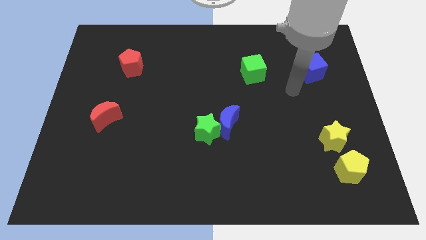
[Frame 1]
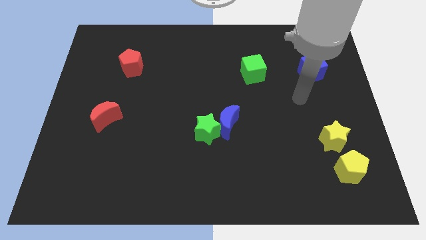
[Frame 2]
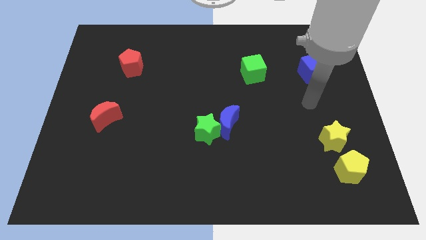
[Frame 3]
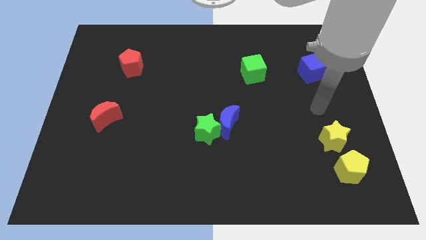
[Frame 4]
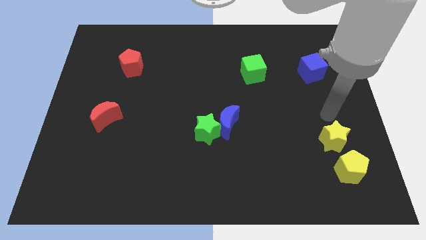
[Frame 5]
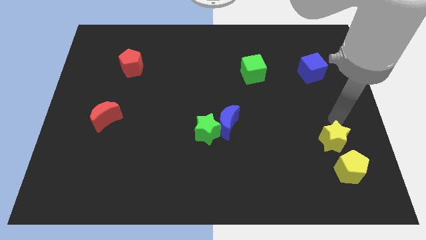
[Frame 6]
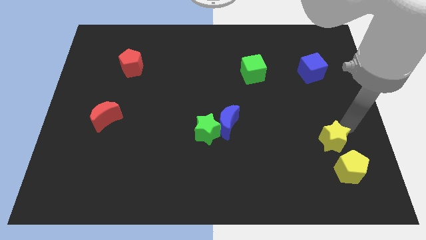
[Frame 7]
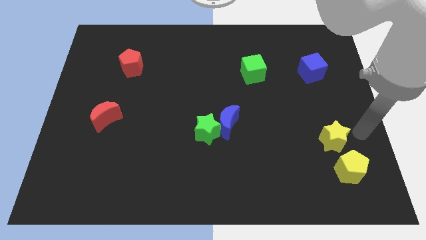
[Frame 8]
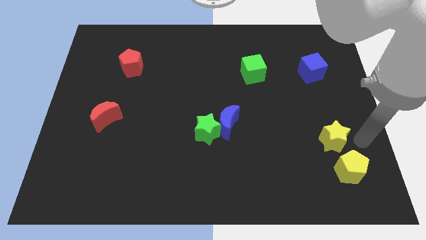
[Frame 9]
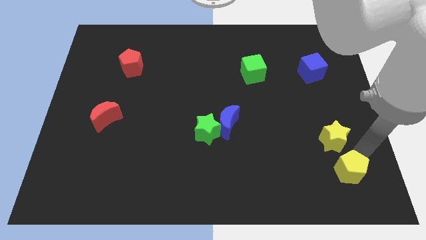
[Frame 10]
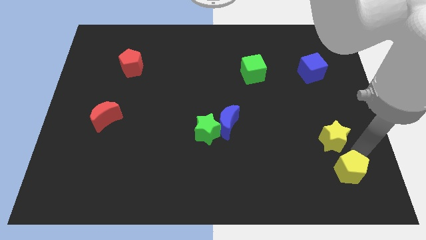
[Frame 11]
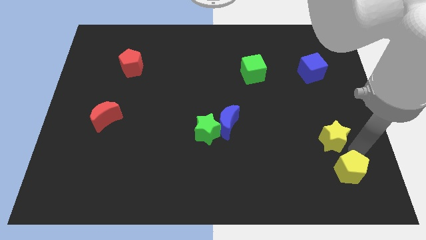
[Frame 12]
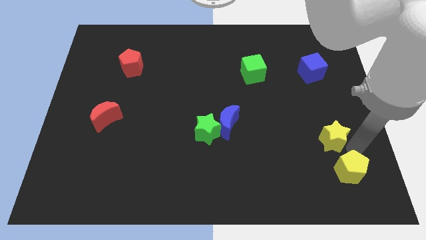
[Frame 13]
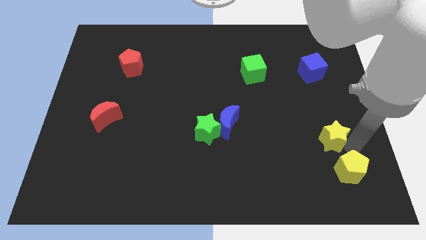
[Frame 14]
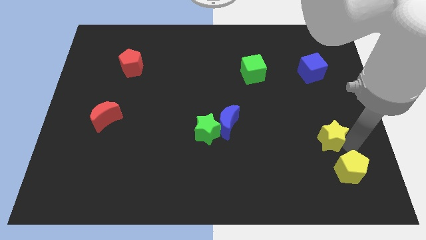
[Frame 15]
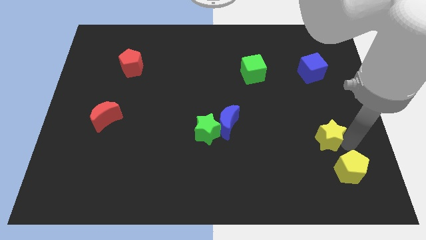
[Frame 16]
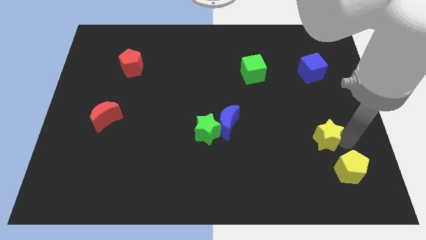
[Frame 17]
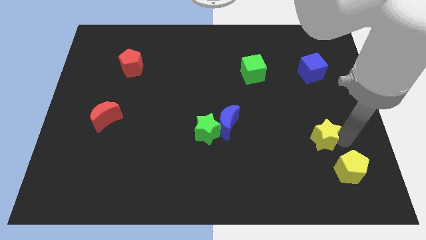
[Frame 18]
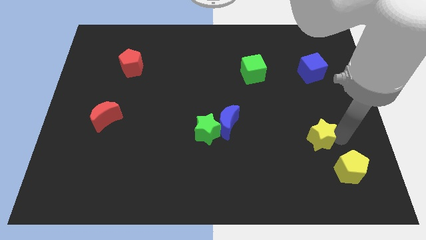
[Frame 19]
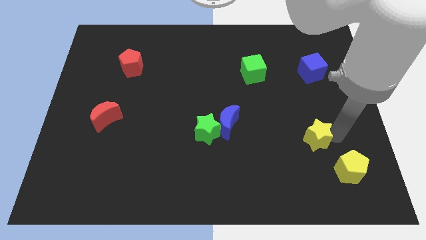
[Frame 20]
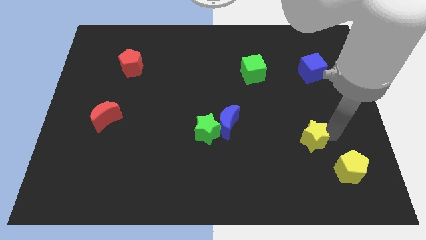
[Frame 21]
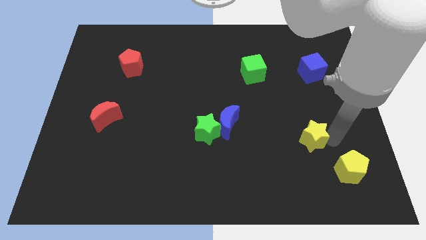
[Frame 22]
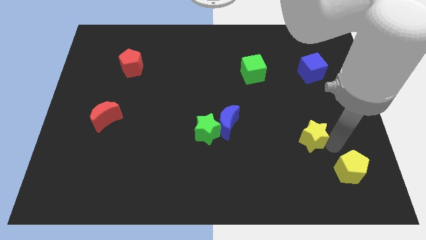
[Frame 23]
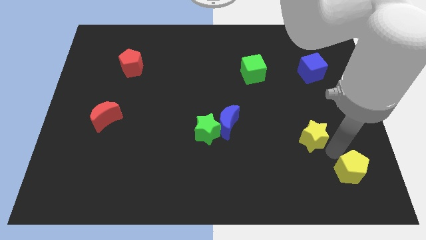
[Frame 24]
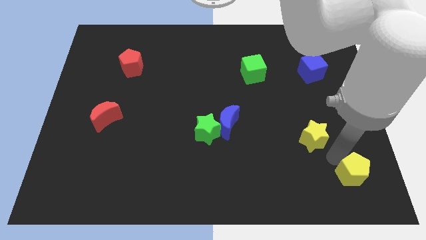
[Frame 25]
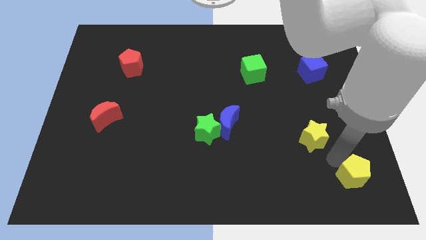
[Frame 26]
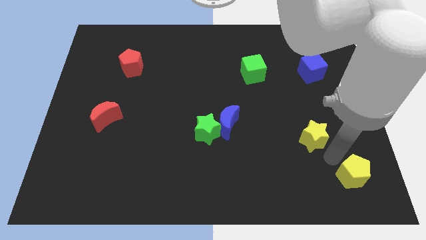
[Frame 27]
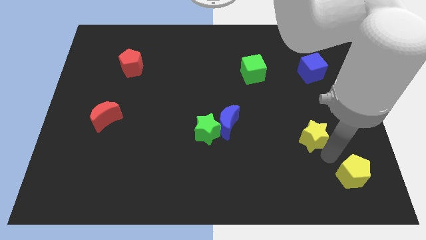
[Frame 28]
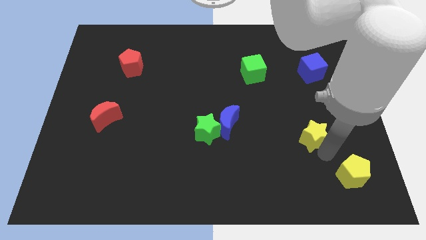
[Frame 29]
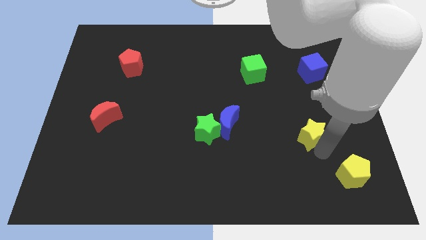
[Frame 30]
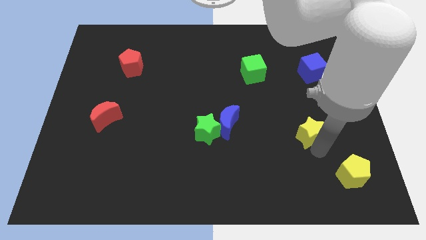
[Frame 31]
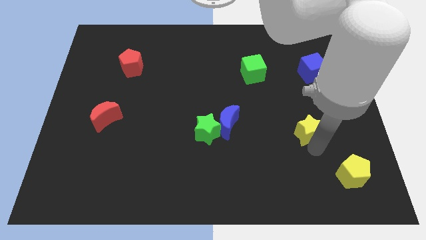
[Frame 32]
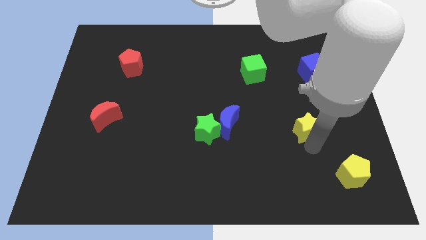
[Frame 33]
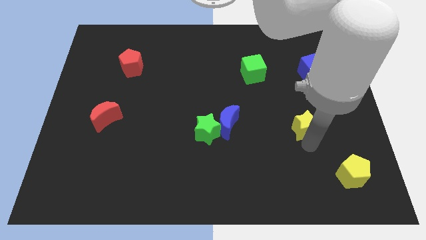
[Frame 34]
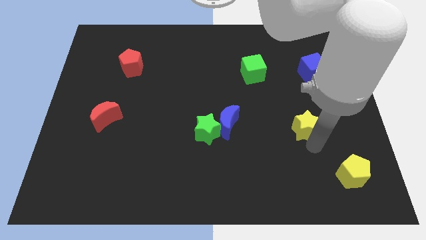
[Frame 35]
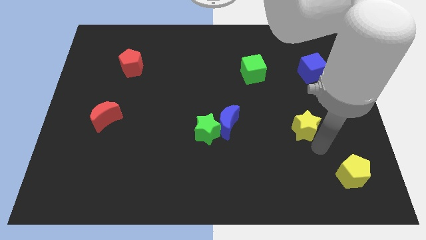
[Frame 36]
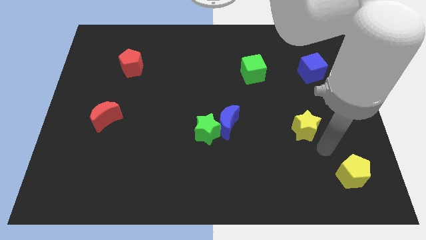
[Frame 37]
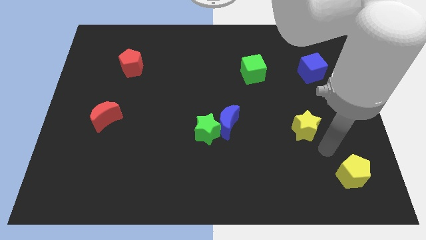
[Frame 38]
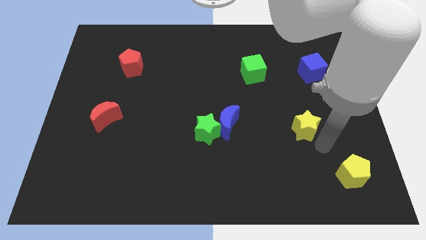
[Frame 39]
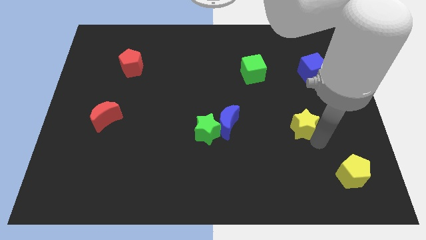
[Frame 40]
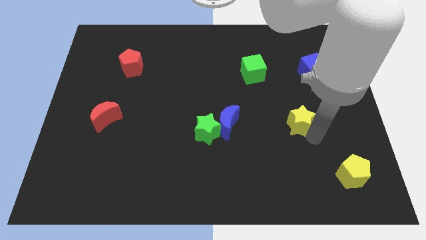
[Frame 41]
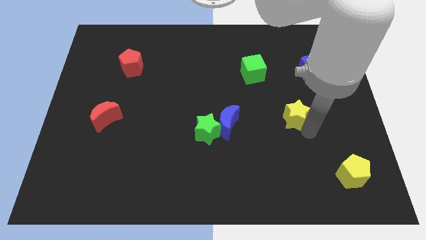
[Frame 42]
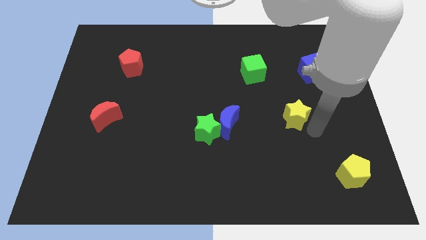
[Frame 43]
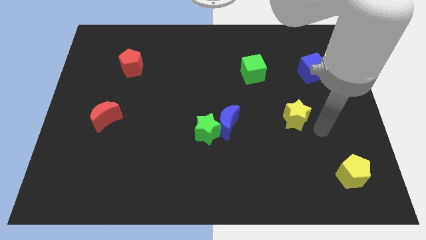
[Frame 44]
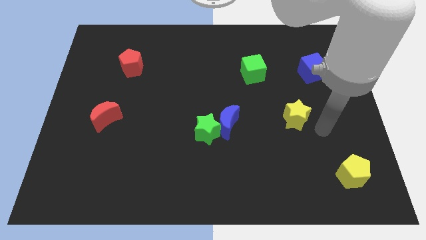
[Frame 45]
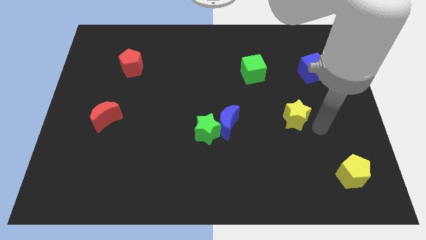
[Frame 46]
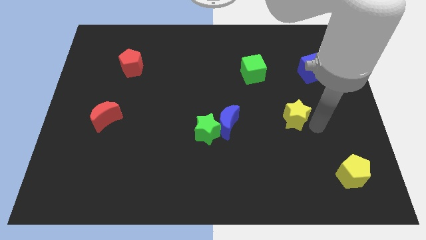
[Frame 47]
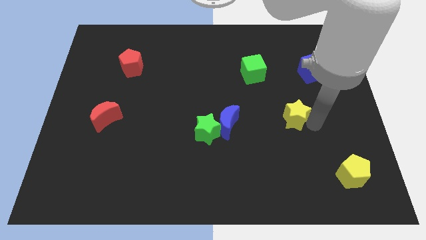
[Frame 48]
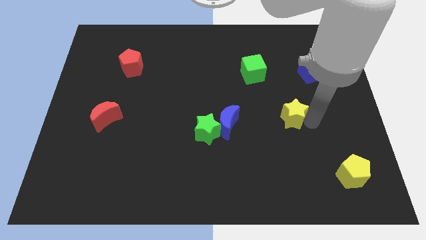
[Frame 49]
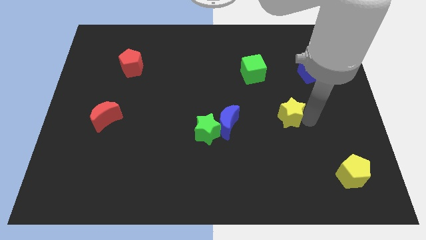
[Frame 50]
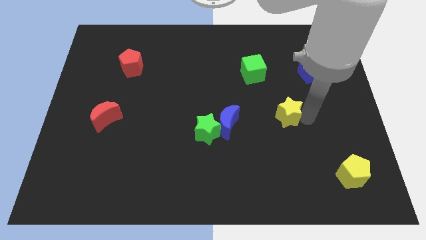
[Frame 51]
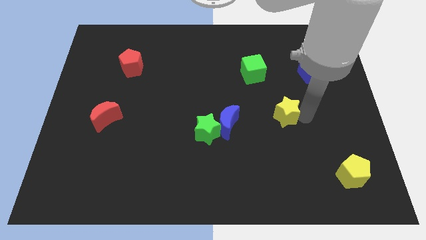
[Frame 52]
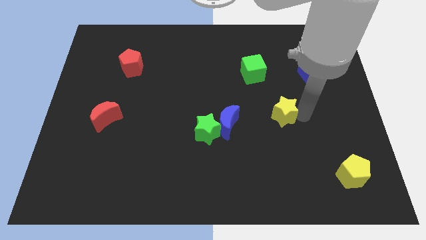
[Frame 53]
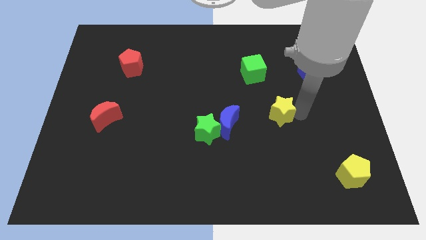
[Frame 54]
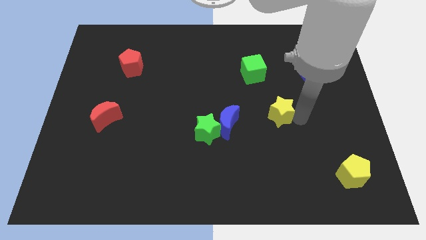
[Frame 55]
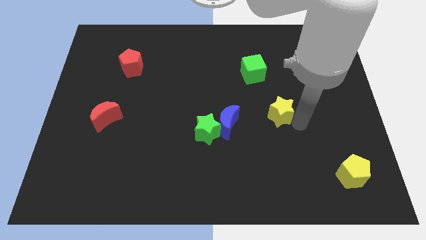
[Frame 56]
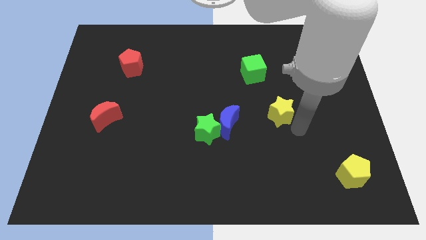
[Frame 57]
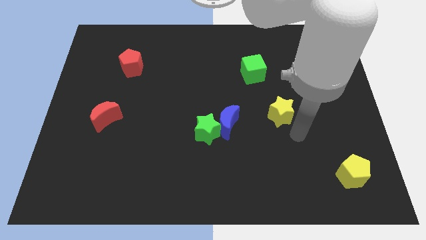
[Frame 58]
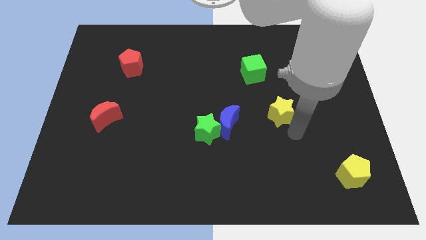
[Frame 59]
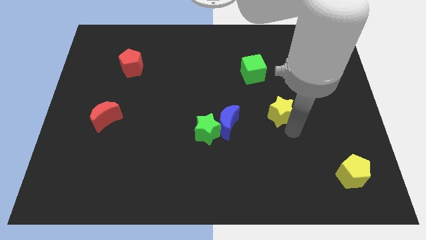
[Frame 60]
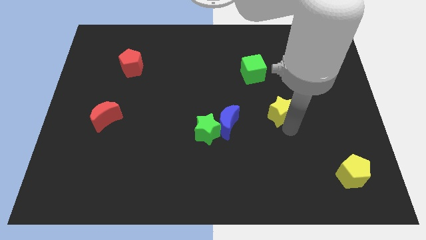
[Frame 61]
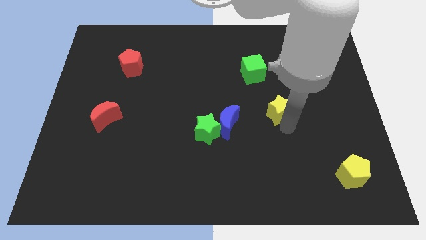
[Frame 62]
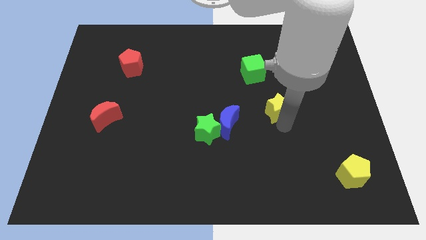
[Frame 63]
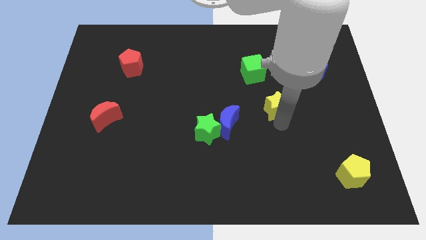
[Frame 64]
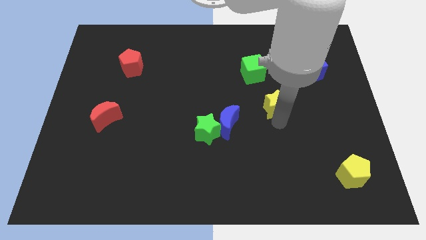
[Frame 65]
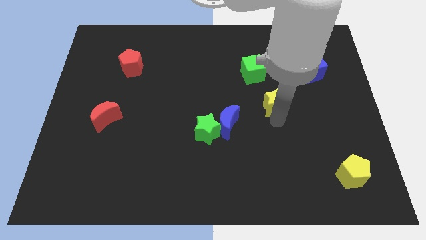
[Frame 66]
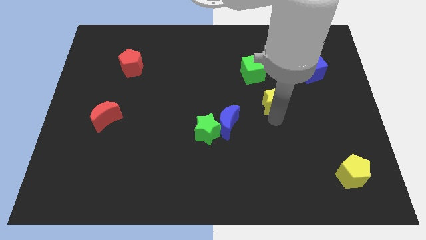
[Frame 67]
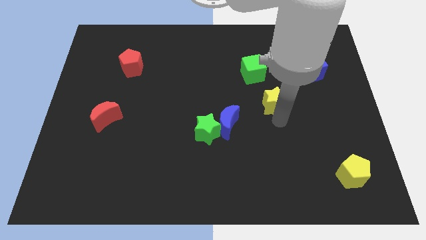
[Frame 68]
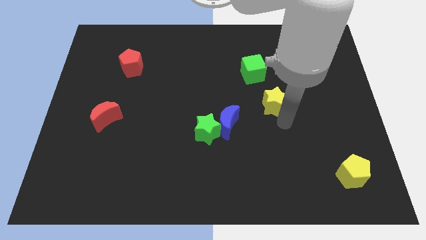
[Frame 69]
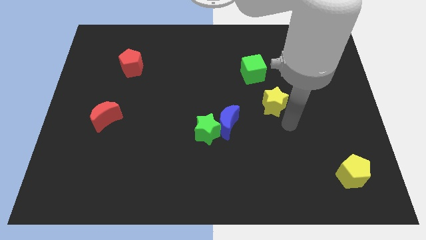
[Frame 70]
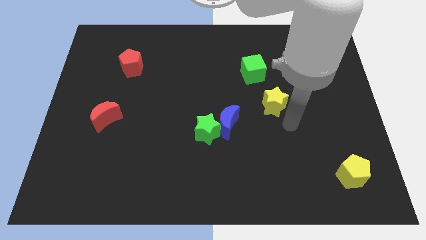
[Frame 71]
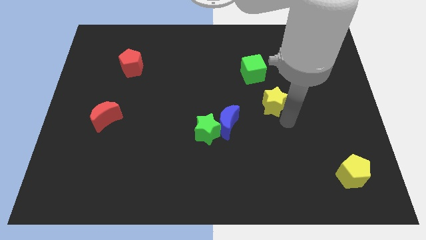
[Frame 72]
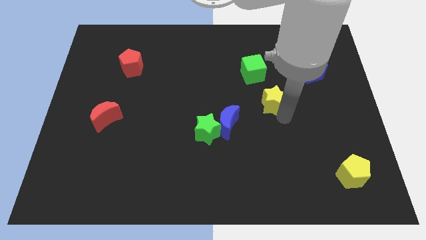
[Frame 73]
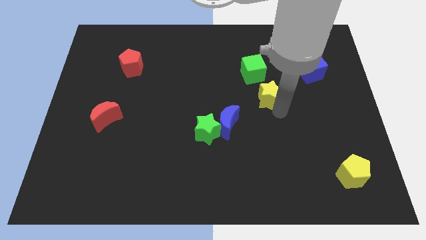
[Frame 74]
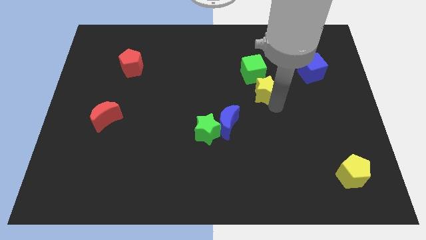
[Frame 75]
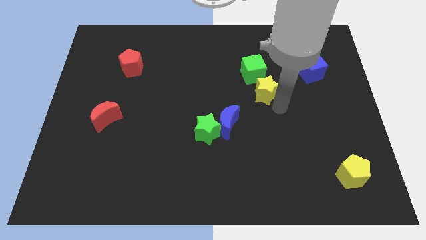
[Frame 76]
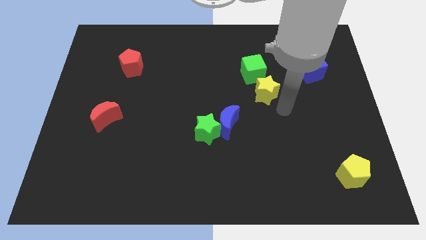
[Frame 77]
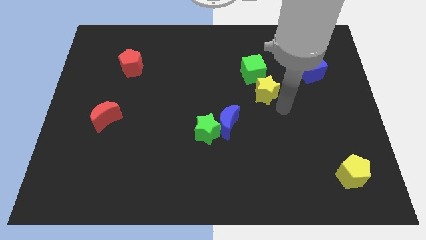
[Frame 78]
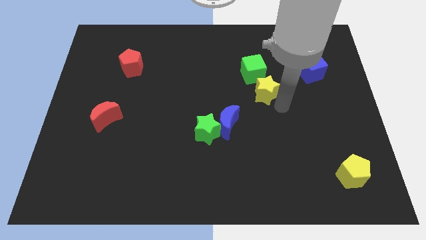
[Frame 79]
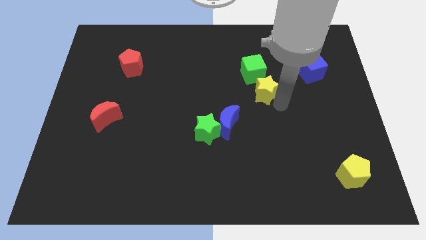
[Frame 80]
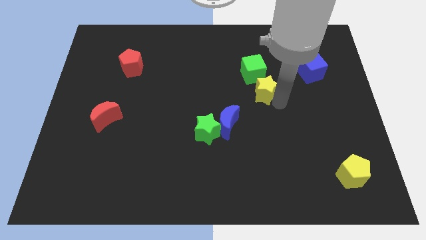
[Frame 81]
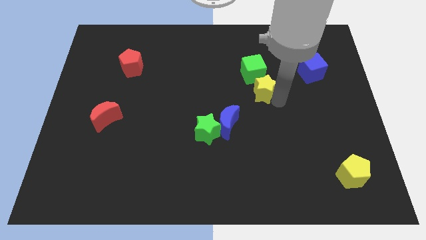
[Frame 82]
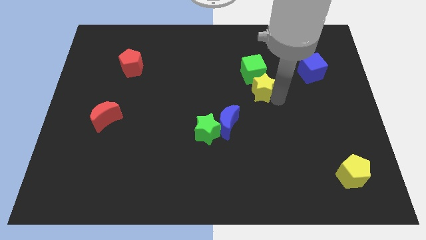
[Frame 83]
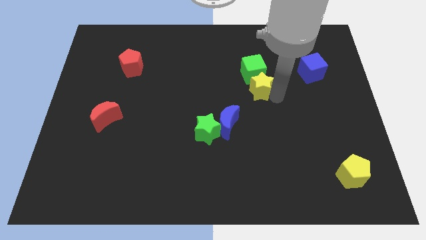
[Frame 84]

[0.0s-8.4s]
move the yellow star next to the green cube
